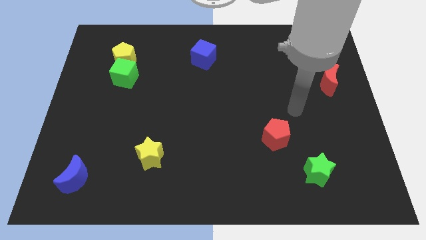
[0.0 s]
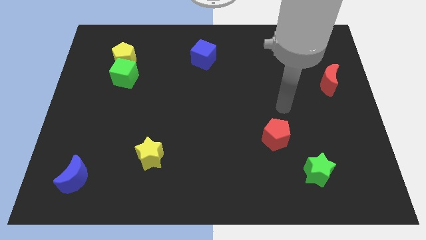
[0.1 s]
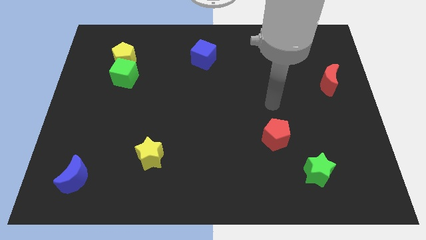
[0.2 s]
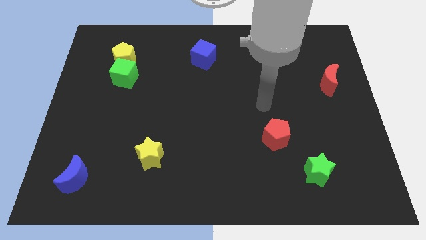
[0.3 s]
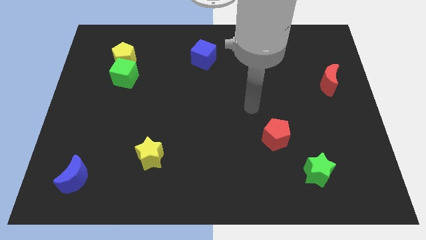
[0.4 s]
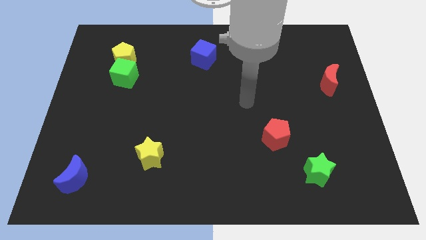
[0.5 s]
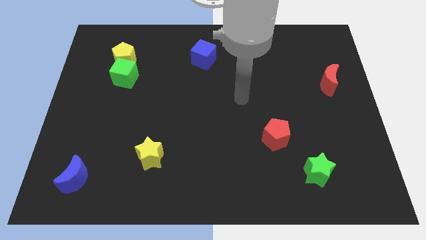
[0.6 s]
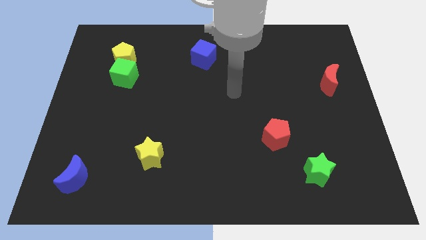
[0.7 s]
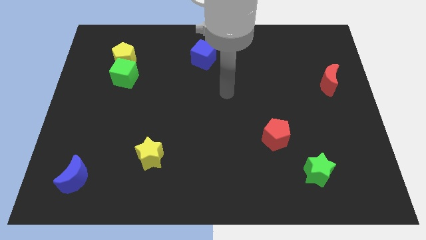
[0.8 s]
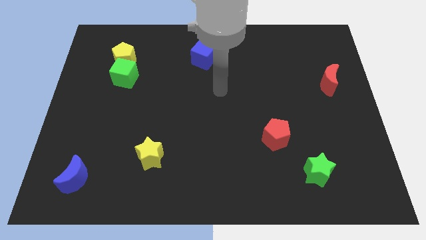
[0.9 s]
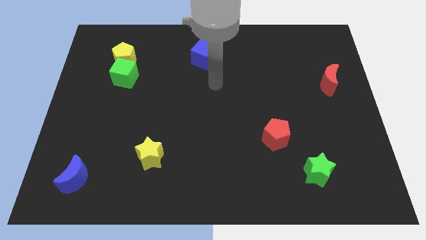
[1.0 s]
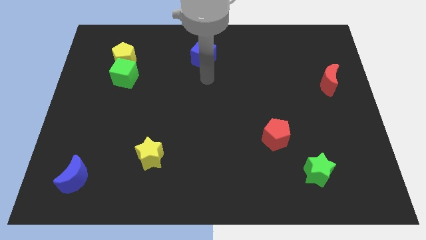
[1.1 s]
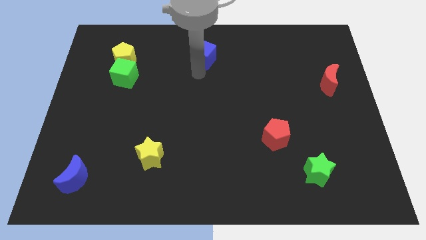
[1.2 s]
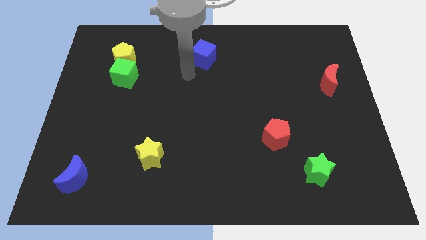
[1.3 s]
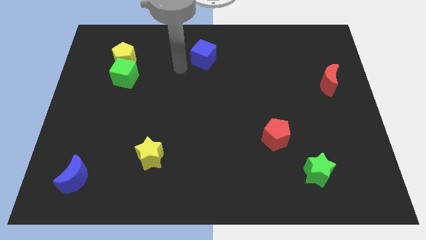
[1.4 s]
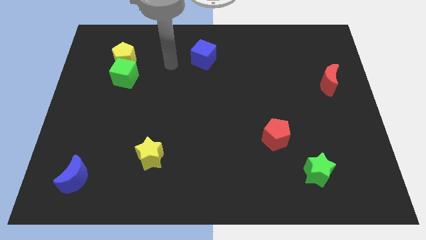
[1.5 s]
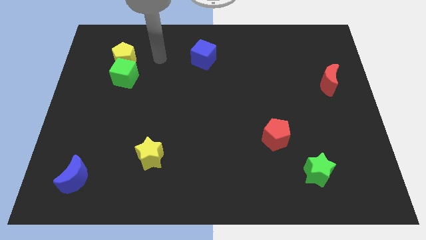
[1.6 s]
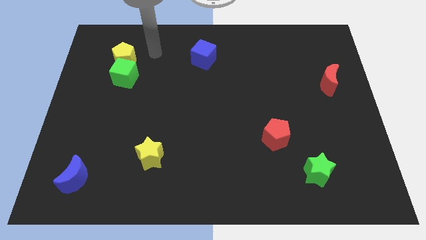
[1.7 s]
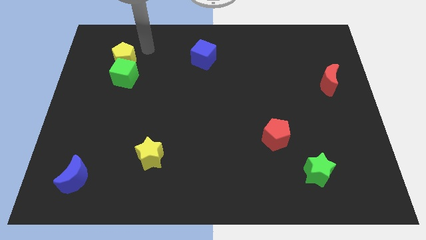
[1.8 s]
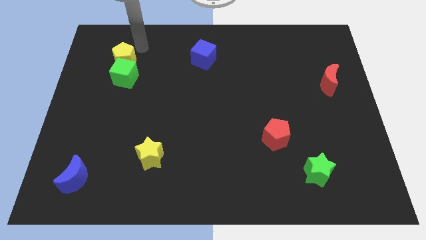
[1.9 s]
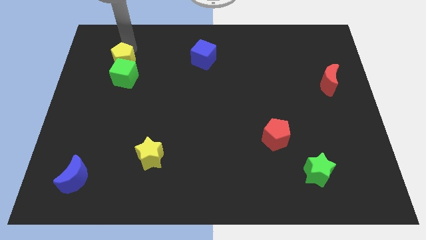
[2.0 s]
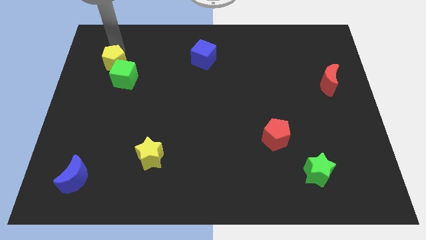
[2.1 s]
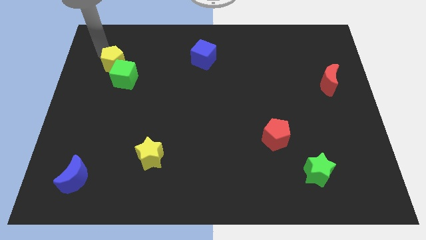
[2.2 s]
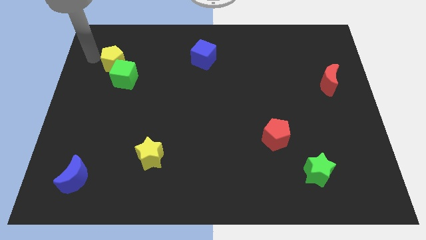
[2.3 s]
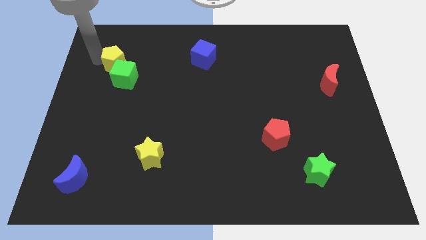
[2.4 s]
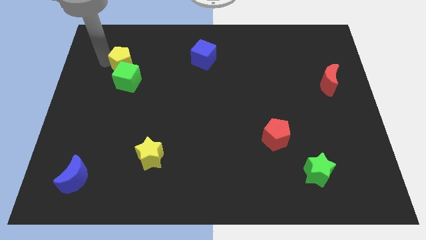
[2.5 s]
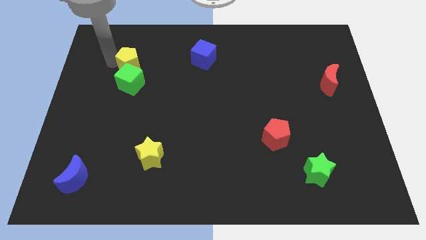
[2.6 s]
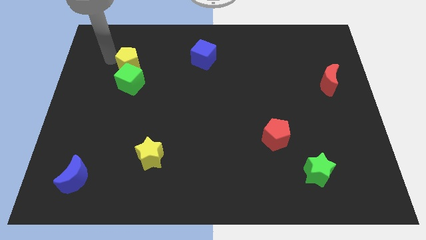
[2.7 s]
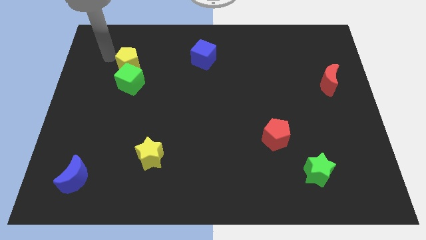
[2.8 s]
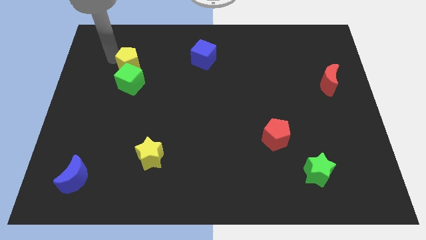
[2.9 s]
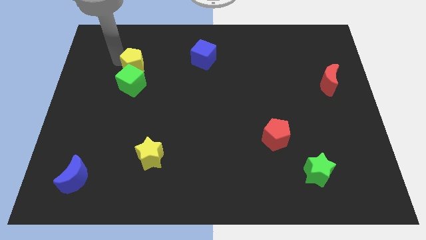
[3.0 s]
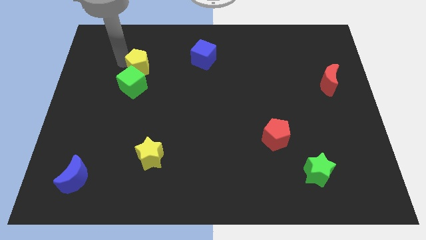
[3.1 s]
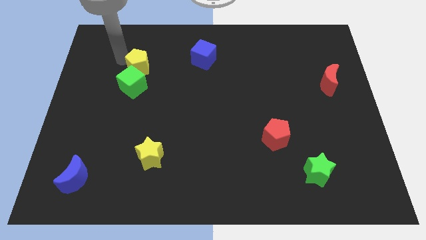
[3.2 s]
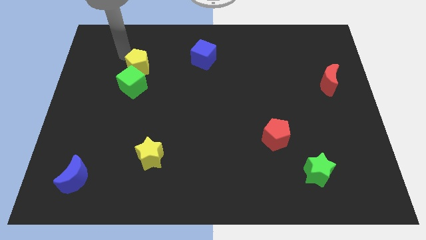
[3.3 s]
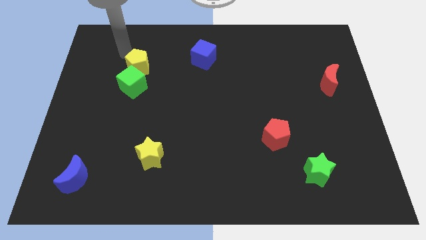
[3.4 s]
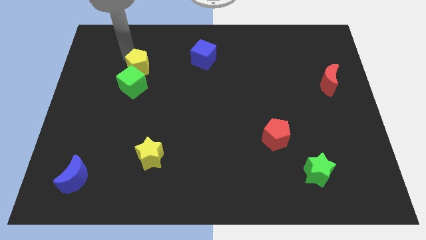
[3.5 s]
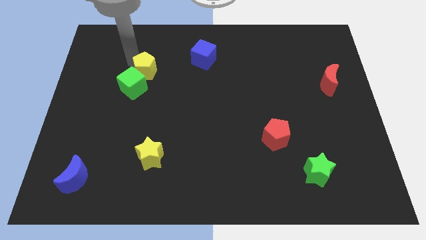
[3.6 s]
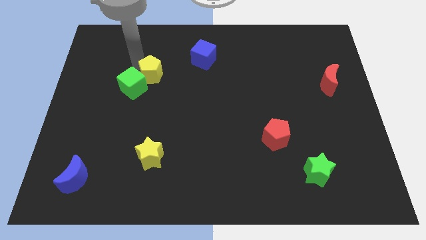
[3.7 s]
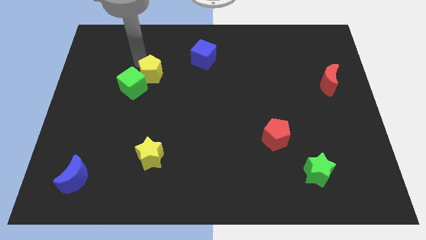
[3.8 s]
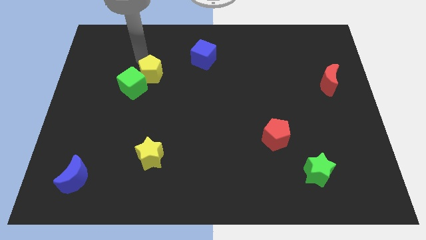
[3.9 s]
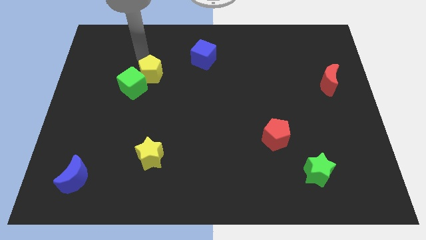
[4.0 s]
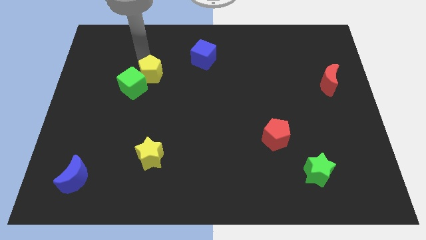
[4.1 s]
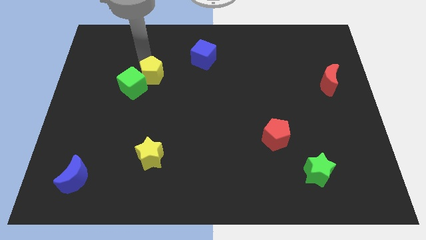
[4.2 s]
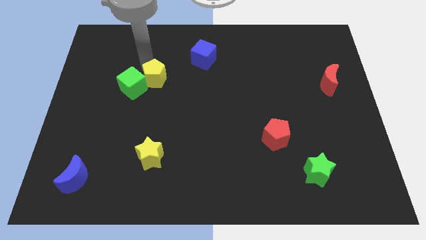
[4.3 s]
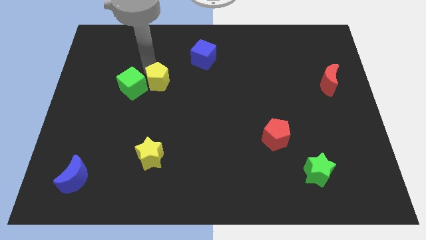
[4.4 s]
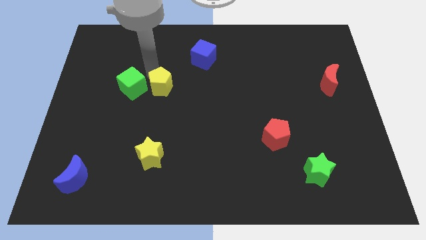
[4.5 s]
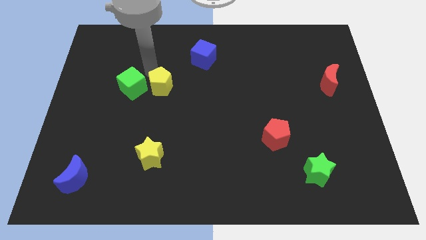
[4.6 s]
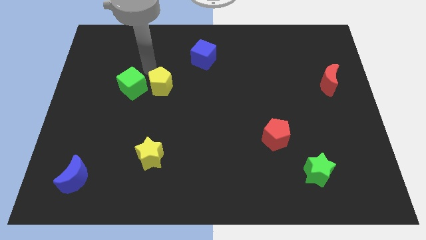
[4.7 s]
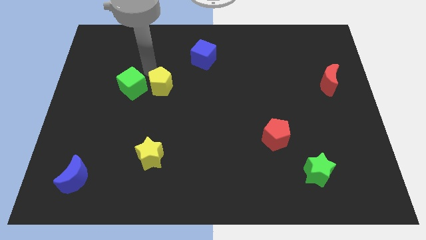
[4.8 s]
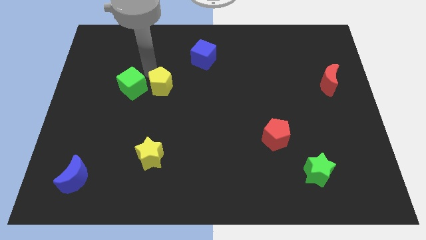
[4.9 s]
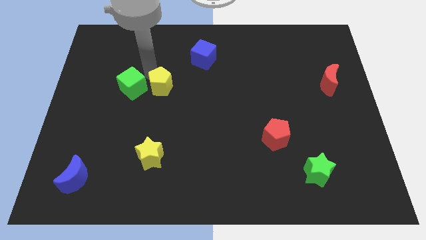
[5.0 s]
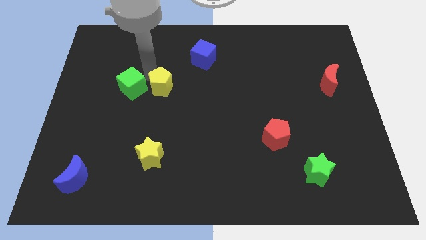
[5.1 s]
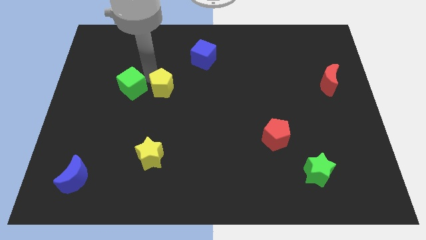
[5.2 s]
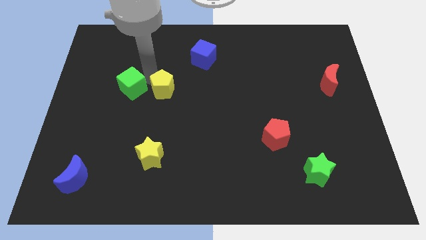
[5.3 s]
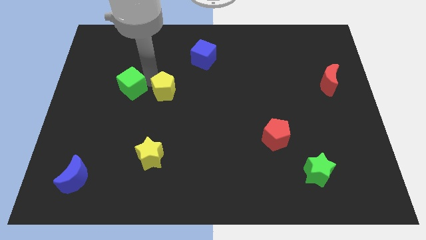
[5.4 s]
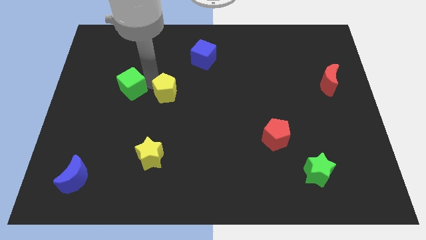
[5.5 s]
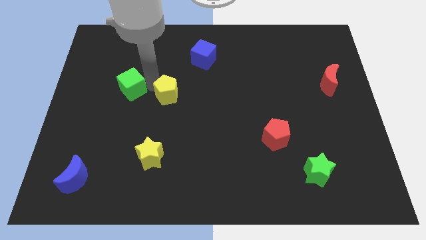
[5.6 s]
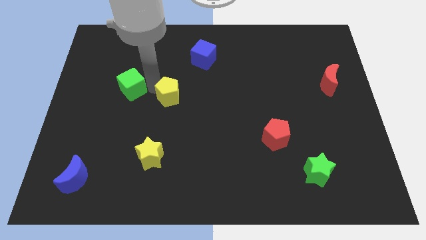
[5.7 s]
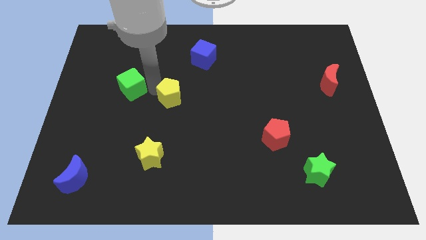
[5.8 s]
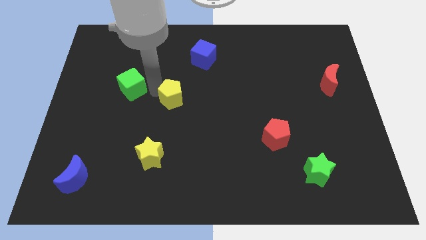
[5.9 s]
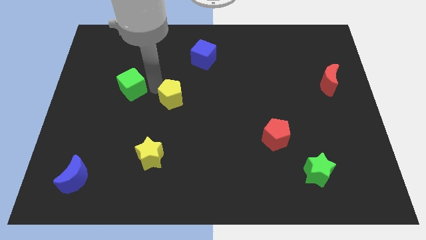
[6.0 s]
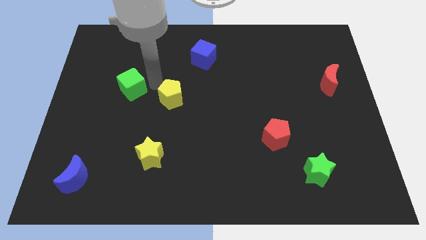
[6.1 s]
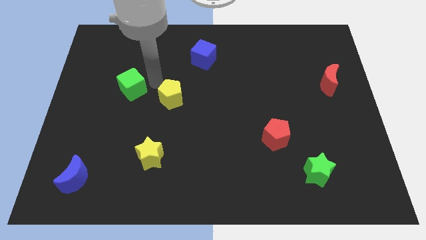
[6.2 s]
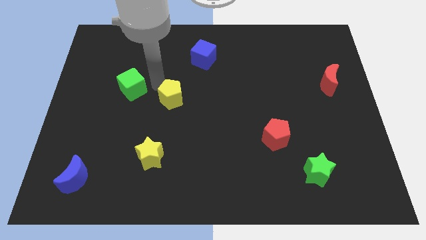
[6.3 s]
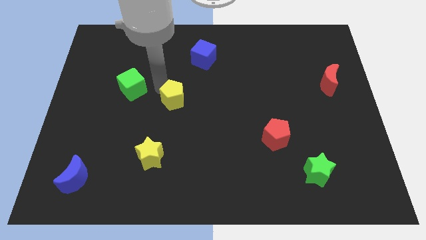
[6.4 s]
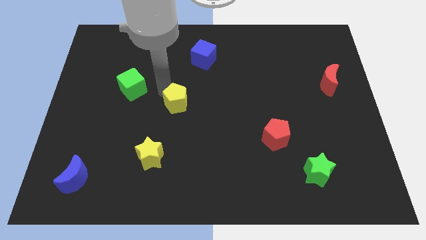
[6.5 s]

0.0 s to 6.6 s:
push the yellow pentagon downwards and to the right diagonally

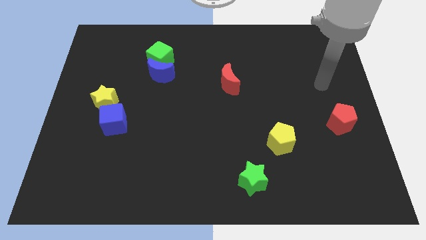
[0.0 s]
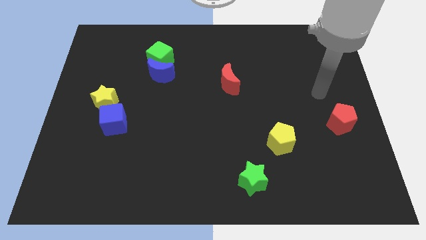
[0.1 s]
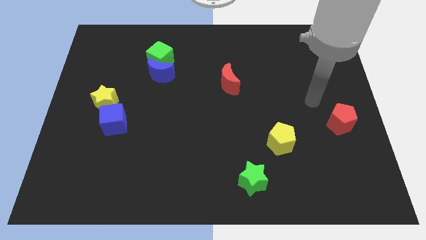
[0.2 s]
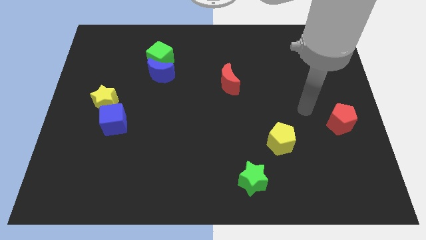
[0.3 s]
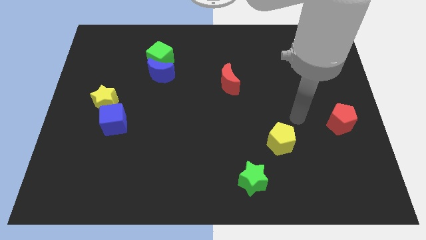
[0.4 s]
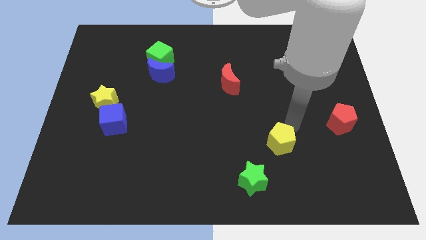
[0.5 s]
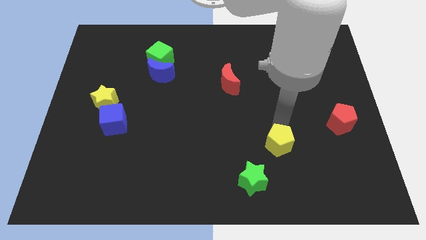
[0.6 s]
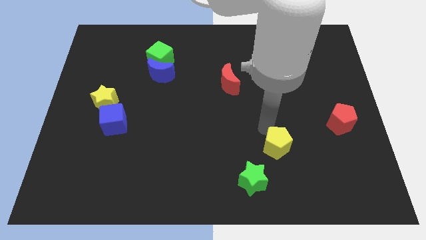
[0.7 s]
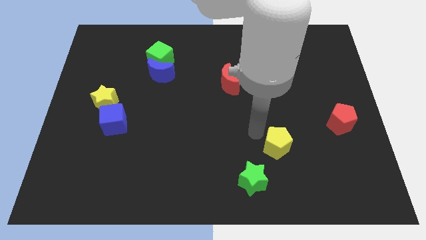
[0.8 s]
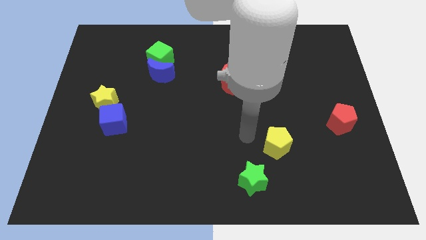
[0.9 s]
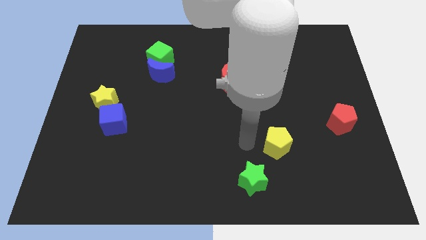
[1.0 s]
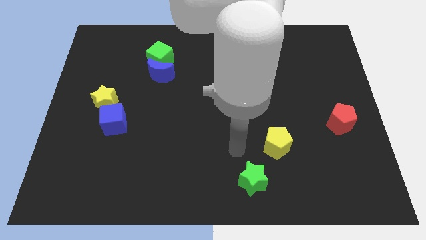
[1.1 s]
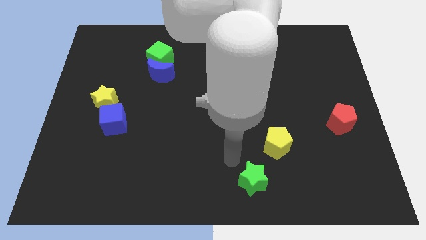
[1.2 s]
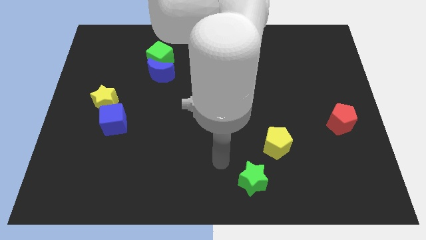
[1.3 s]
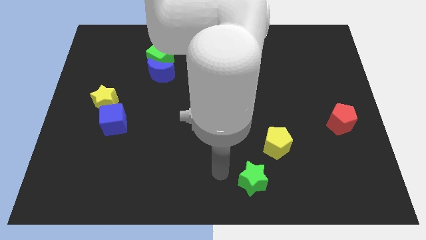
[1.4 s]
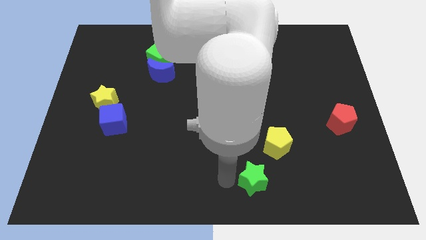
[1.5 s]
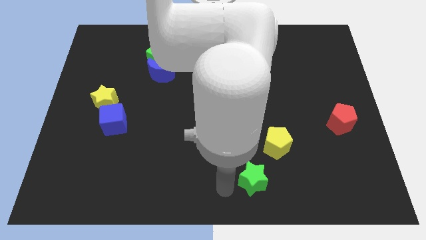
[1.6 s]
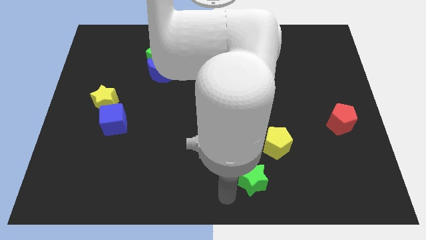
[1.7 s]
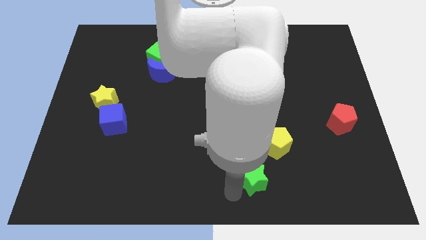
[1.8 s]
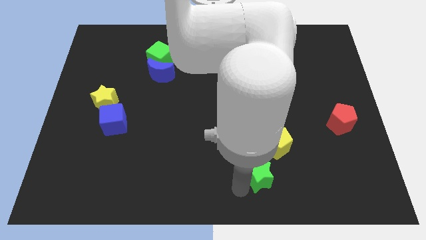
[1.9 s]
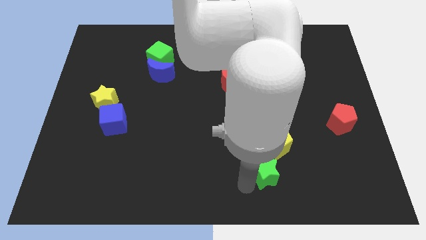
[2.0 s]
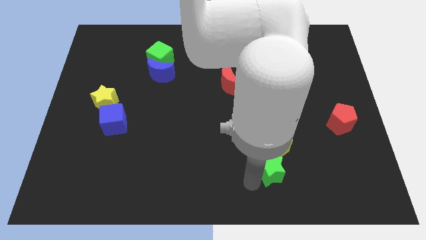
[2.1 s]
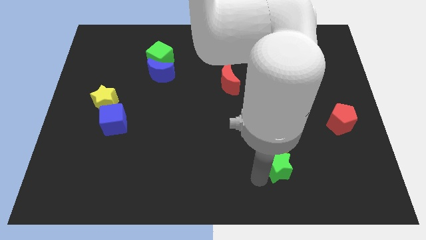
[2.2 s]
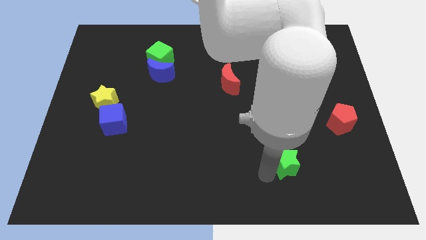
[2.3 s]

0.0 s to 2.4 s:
push the green star a bit diagonally up and right
